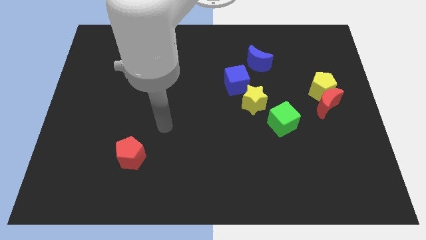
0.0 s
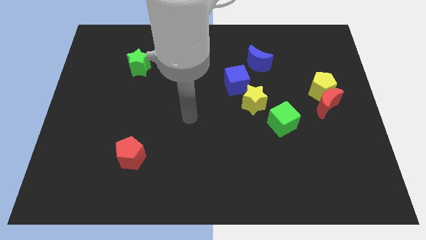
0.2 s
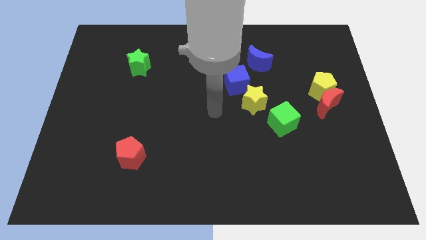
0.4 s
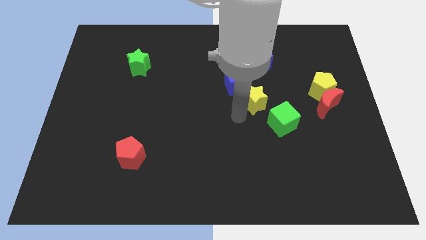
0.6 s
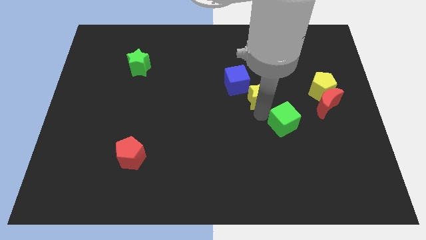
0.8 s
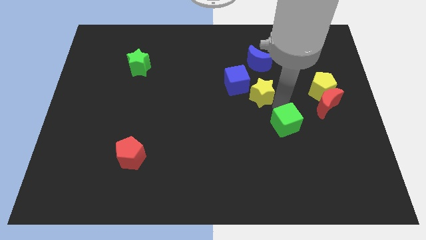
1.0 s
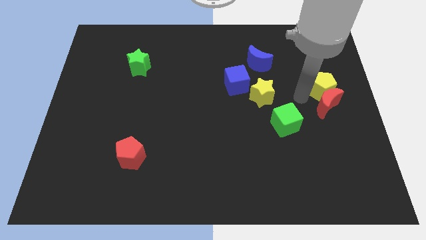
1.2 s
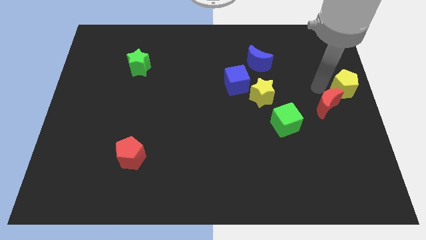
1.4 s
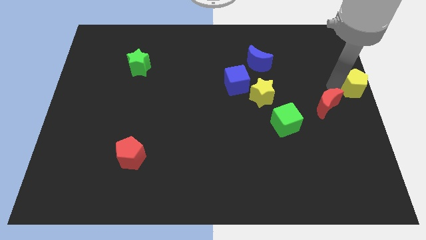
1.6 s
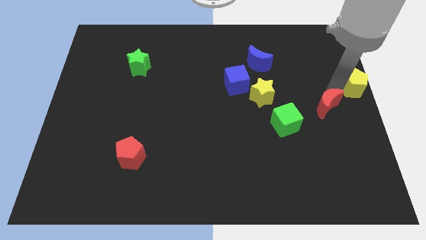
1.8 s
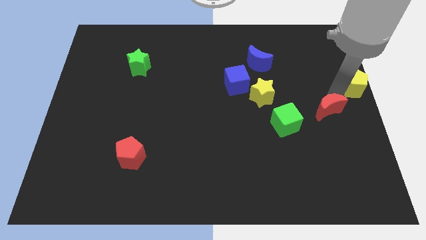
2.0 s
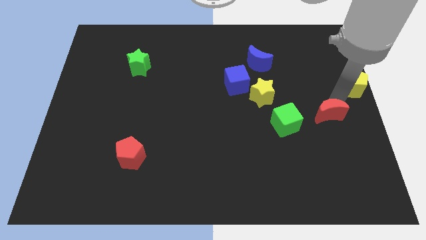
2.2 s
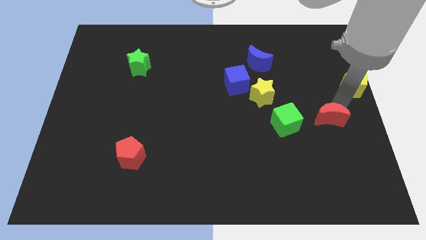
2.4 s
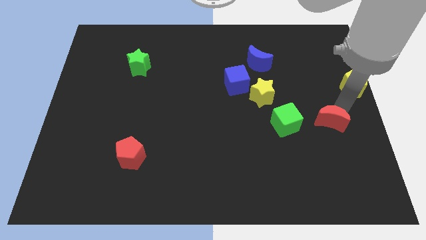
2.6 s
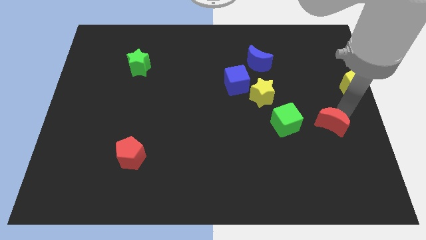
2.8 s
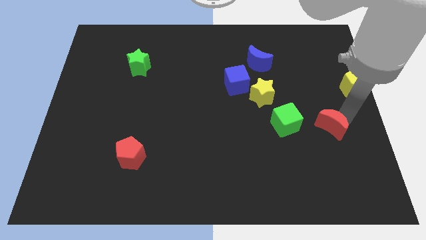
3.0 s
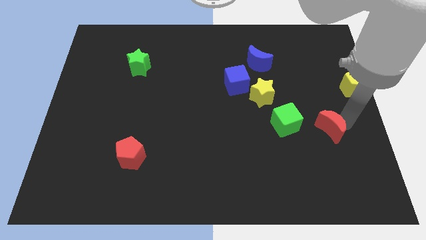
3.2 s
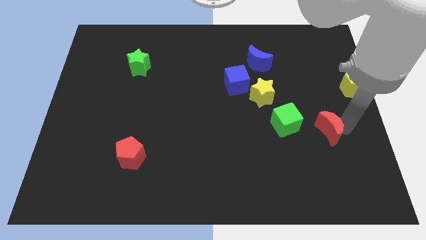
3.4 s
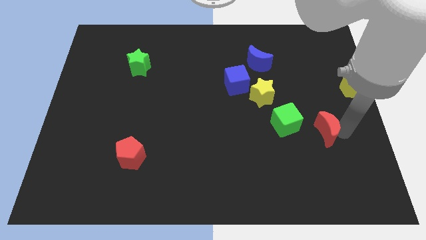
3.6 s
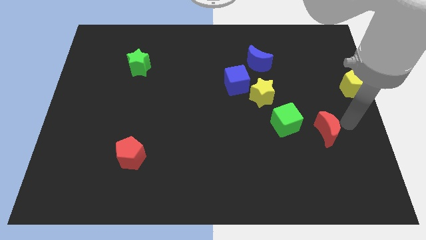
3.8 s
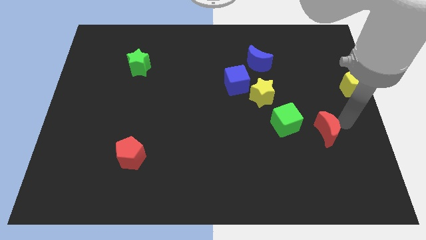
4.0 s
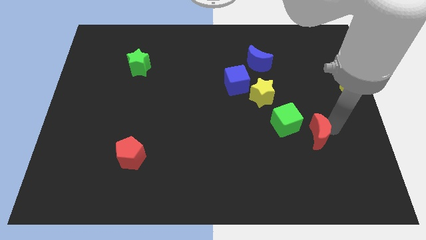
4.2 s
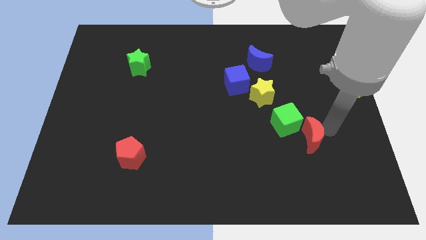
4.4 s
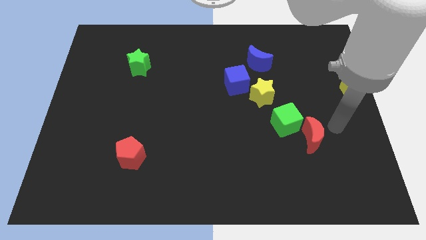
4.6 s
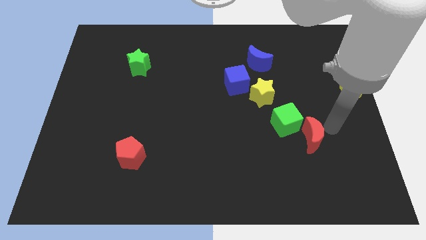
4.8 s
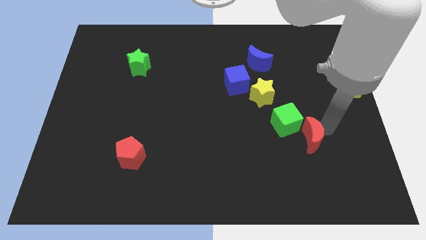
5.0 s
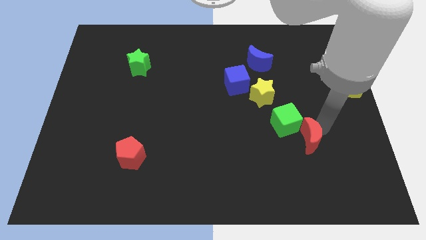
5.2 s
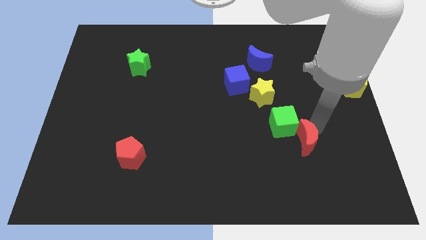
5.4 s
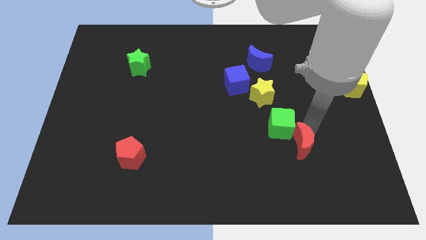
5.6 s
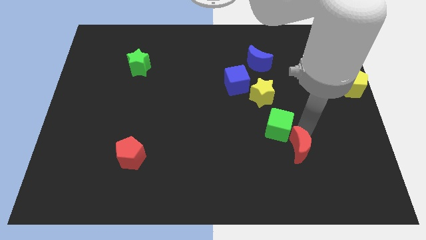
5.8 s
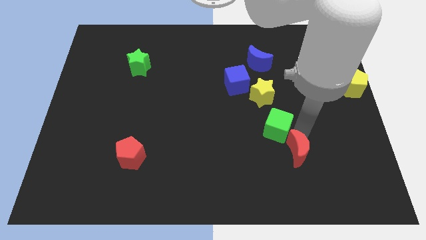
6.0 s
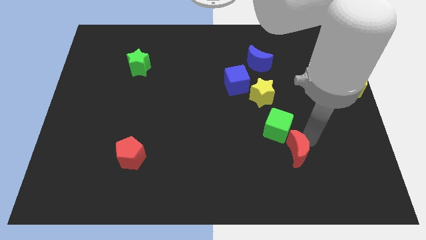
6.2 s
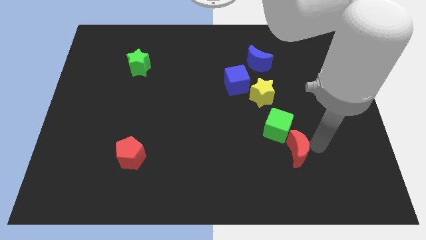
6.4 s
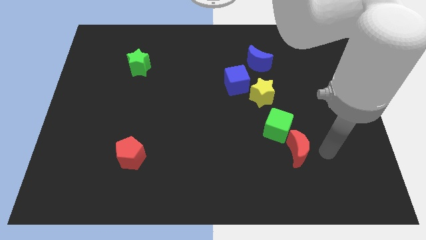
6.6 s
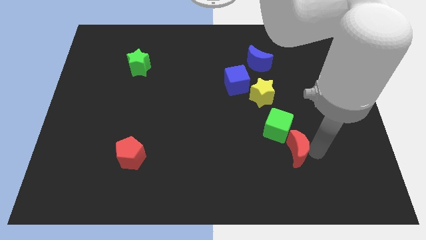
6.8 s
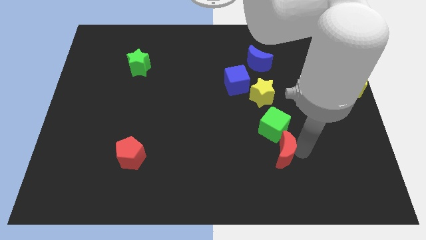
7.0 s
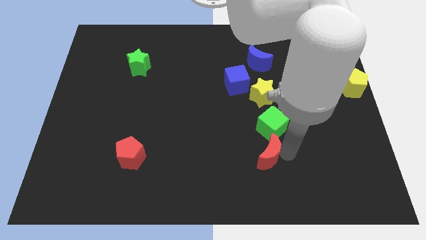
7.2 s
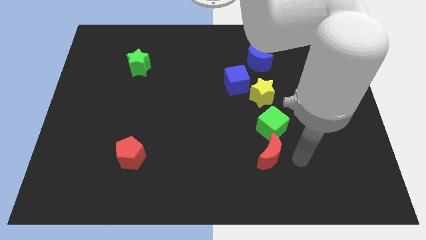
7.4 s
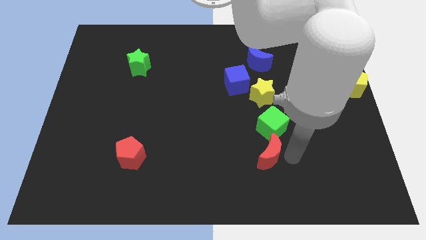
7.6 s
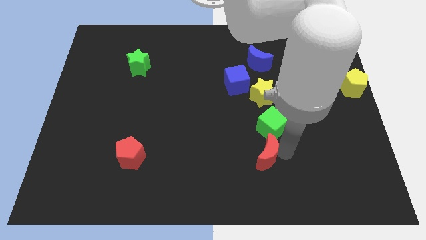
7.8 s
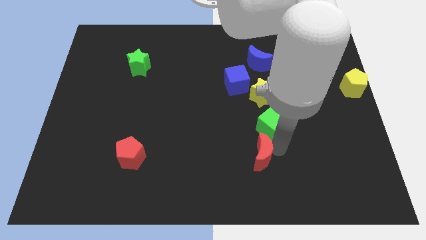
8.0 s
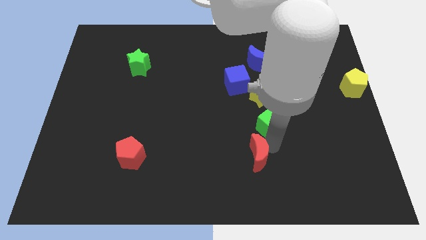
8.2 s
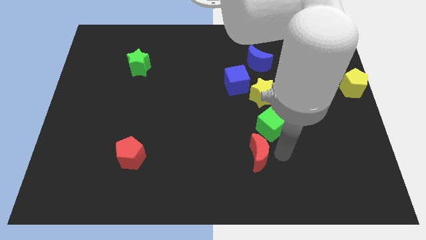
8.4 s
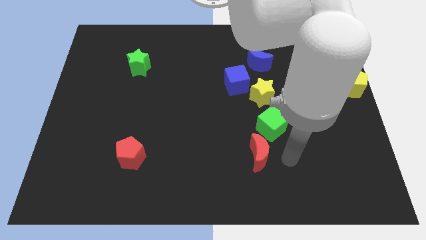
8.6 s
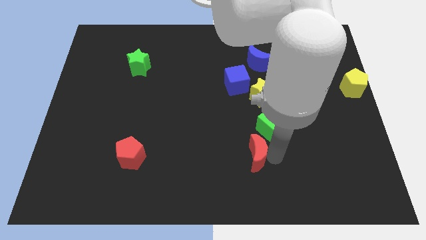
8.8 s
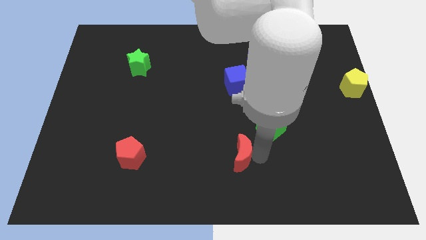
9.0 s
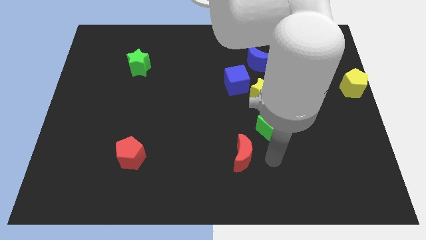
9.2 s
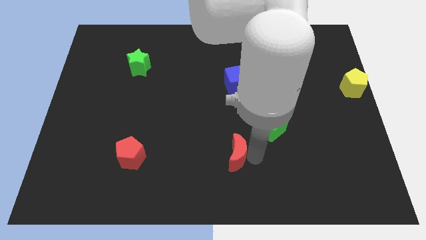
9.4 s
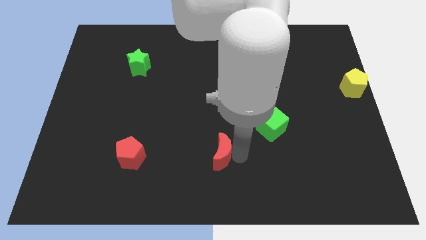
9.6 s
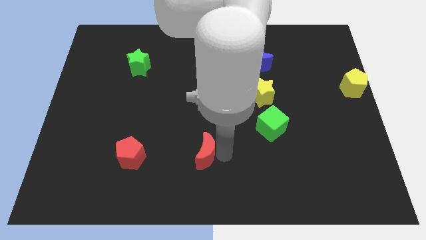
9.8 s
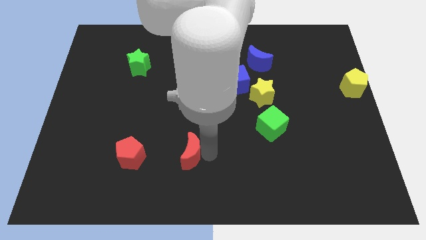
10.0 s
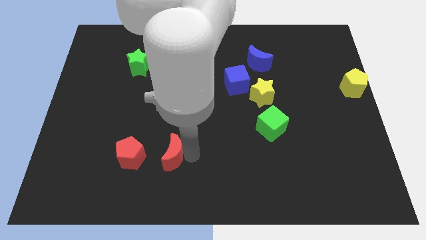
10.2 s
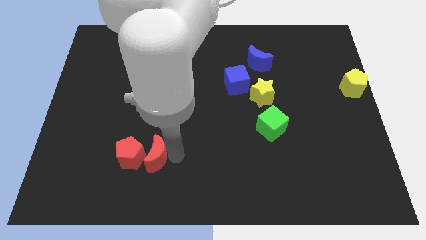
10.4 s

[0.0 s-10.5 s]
slide the red moon next to the red pentagon

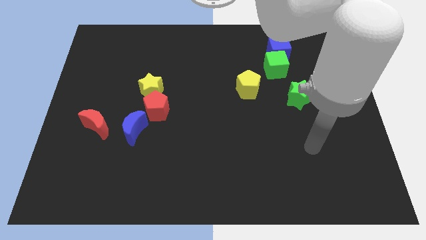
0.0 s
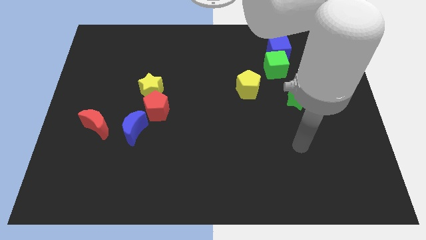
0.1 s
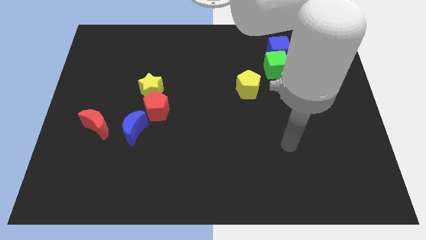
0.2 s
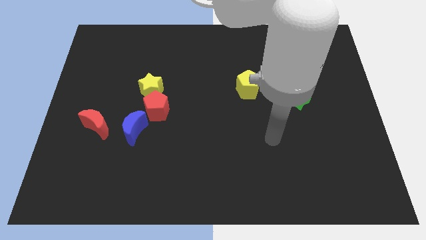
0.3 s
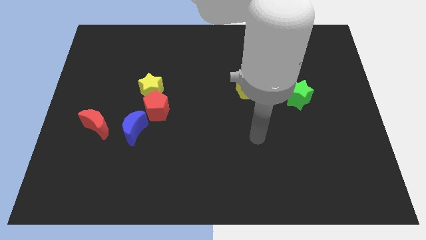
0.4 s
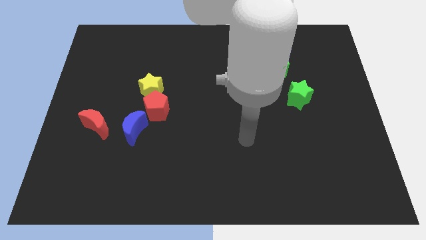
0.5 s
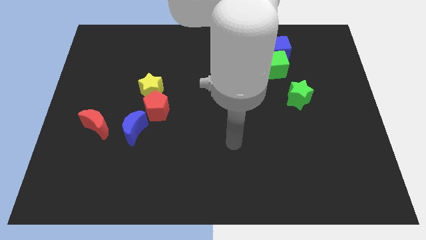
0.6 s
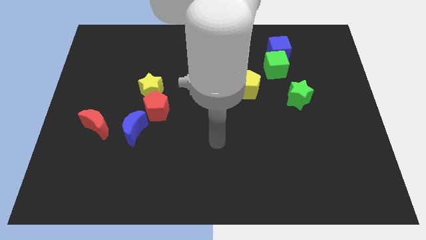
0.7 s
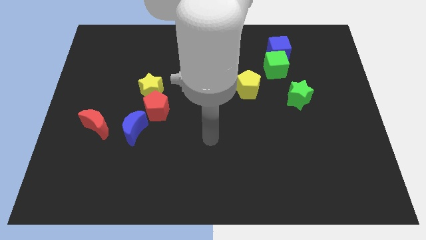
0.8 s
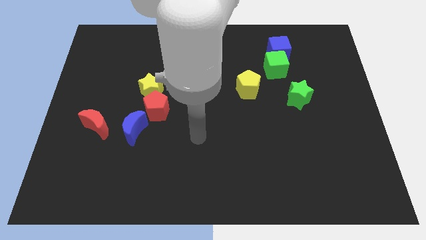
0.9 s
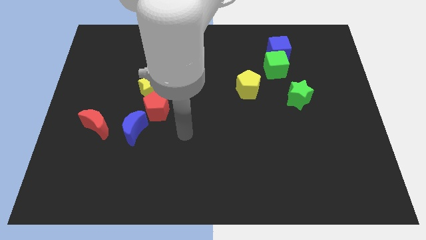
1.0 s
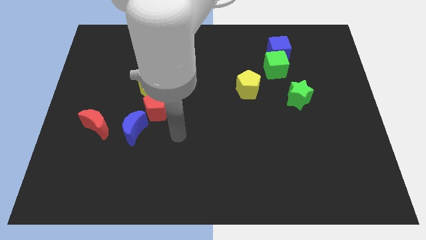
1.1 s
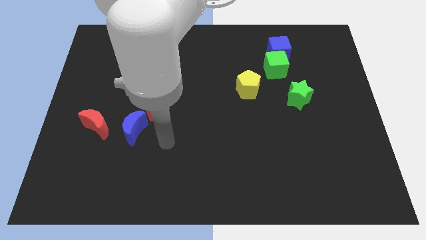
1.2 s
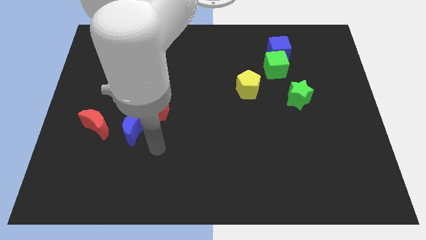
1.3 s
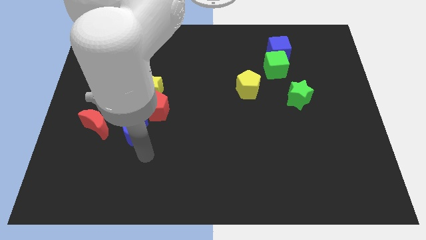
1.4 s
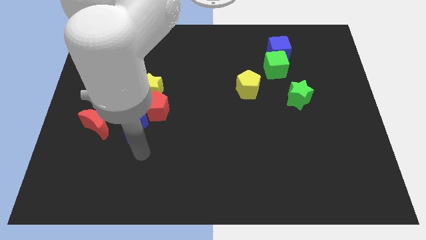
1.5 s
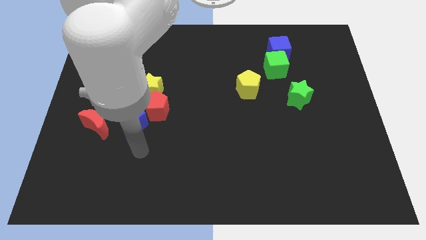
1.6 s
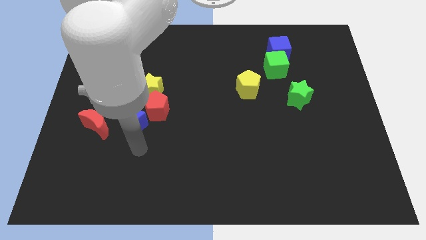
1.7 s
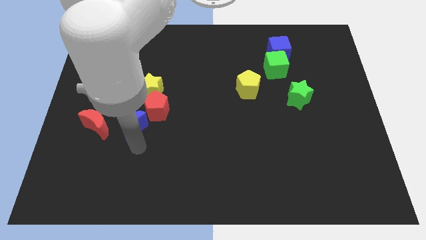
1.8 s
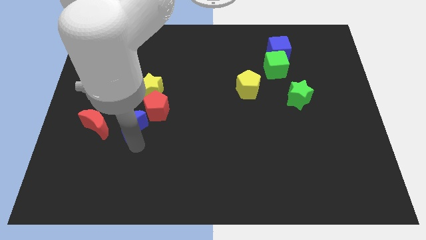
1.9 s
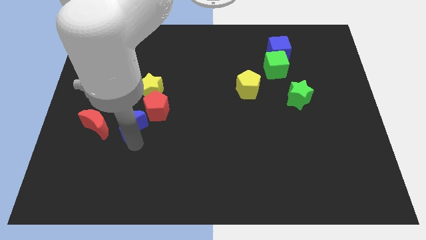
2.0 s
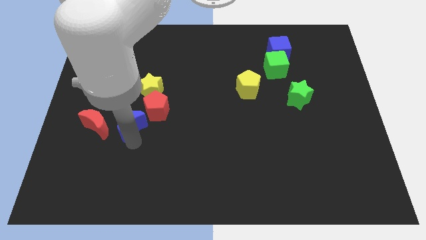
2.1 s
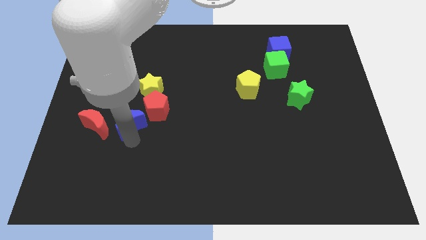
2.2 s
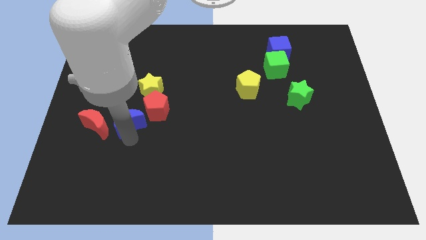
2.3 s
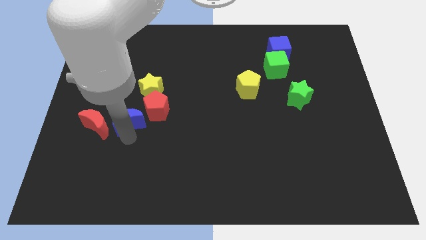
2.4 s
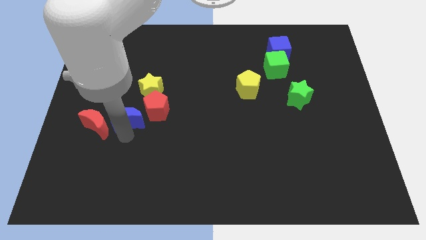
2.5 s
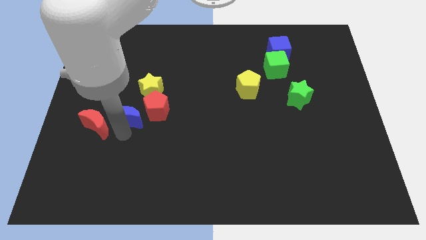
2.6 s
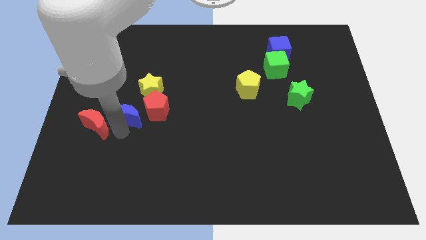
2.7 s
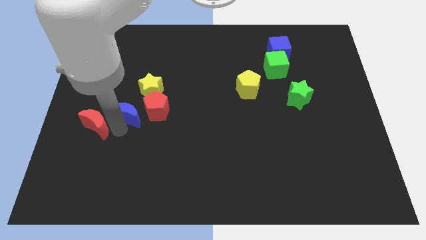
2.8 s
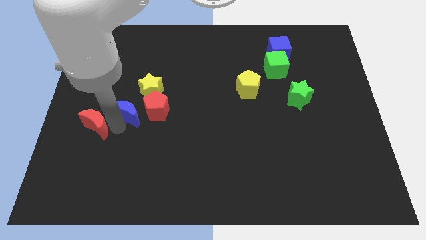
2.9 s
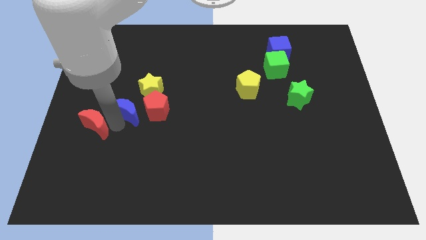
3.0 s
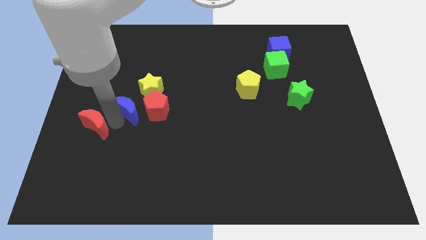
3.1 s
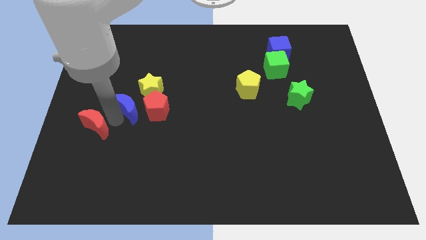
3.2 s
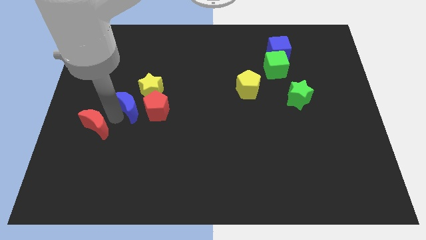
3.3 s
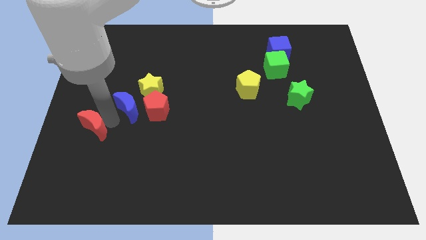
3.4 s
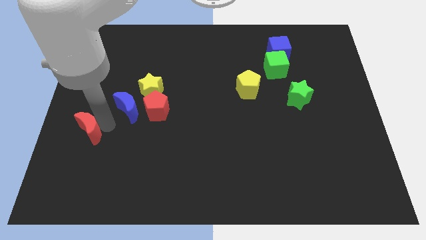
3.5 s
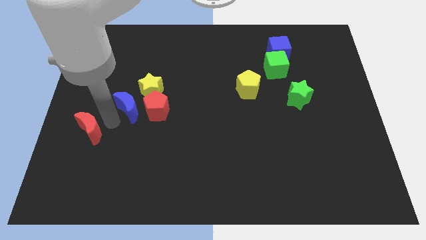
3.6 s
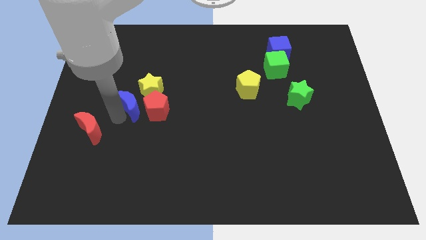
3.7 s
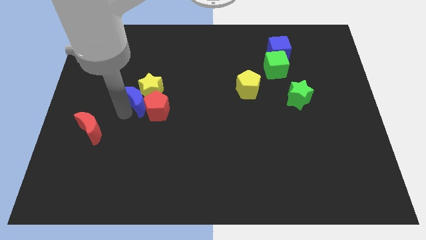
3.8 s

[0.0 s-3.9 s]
put the blue moon towards the yellow star
